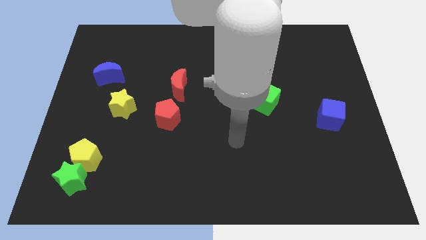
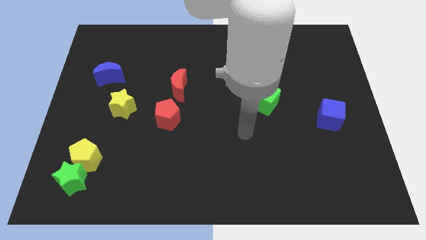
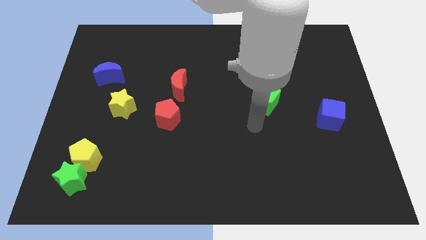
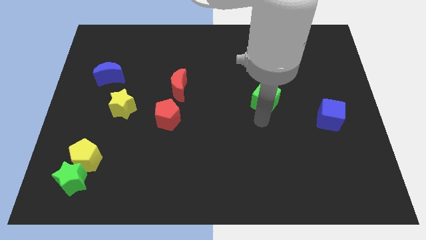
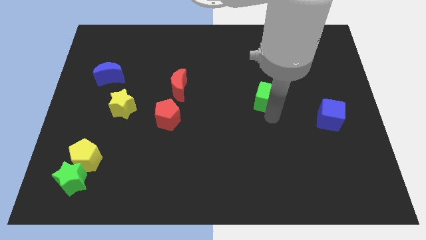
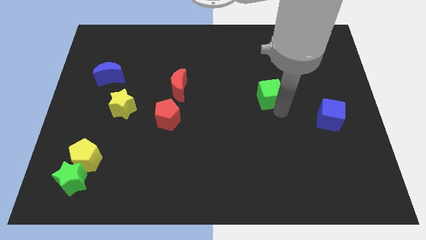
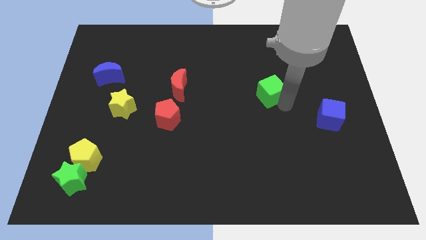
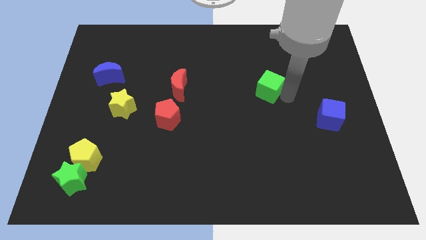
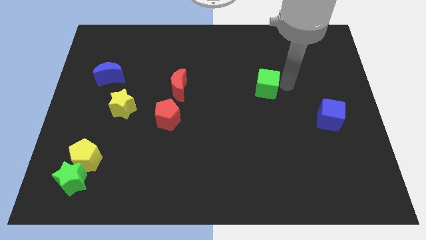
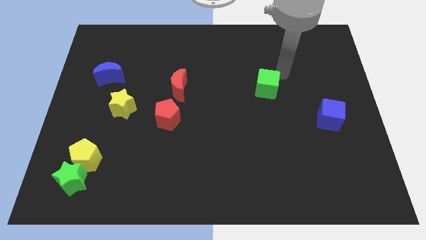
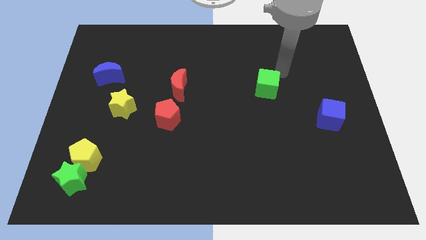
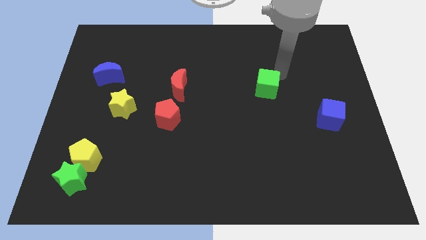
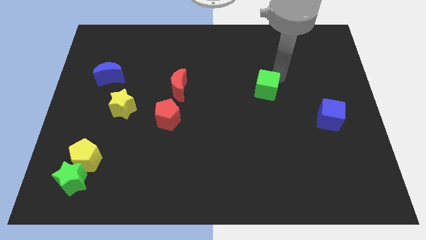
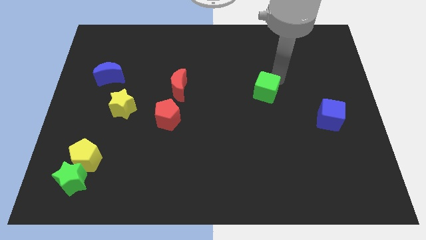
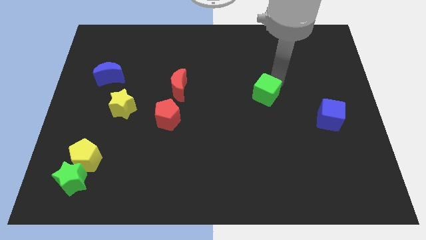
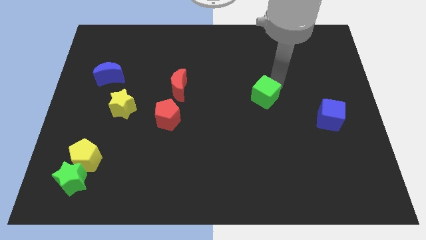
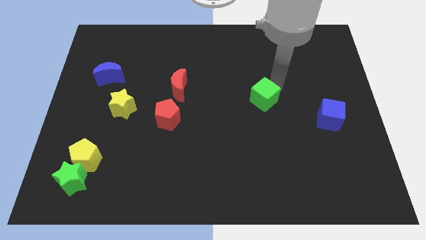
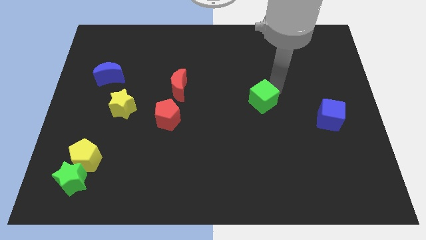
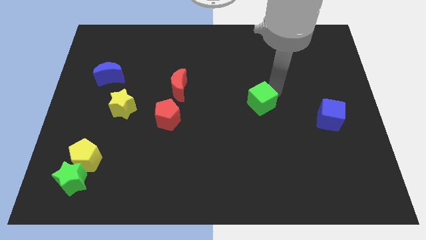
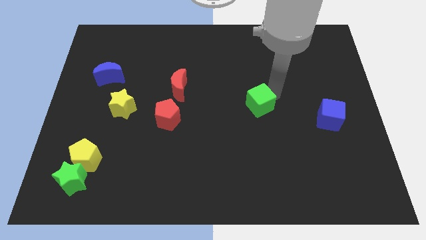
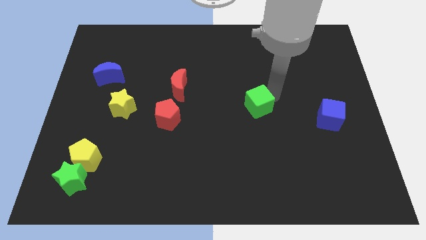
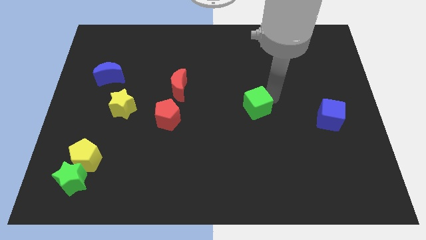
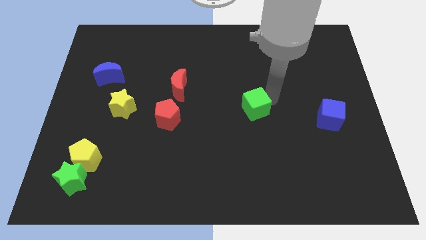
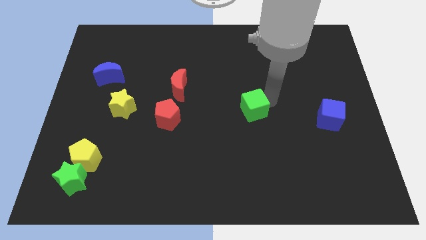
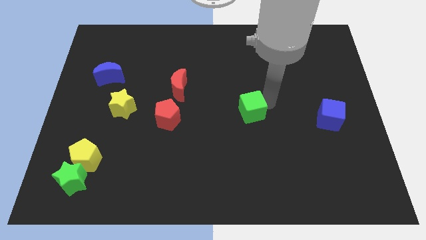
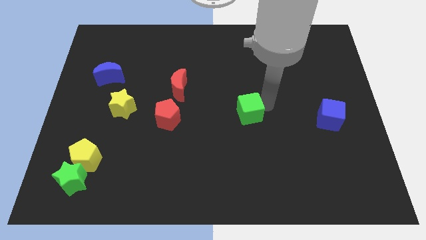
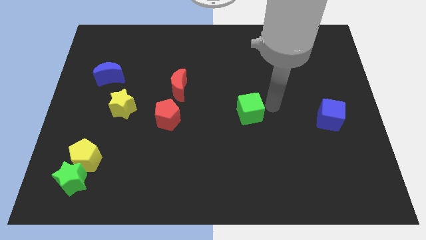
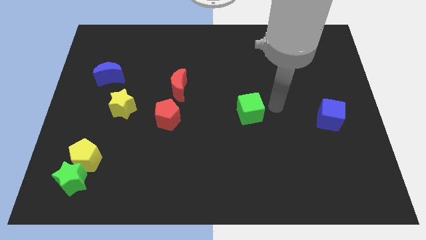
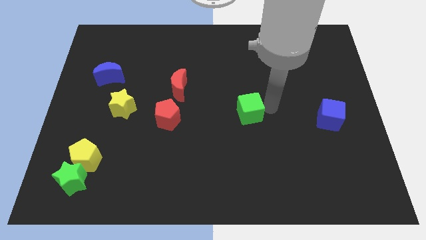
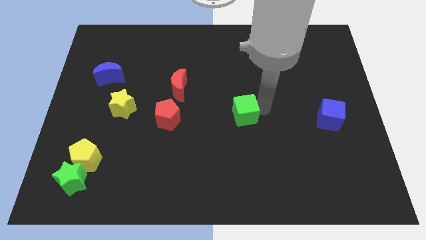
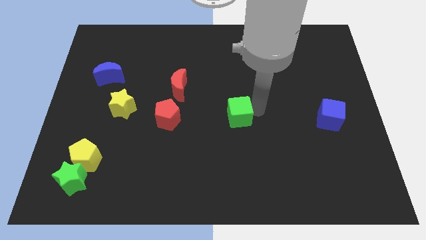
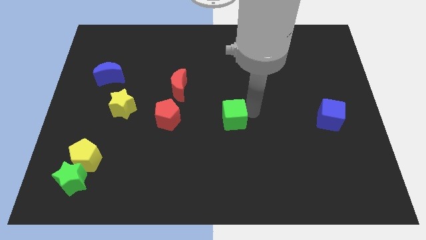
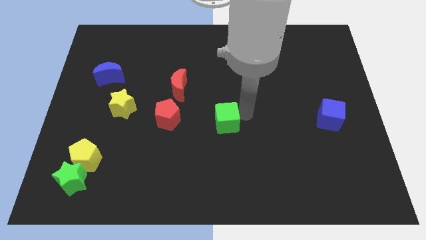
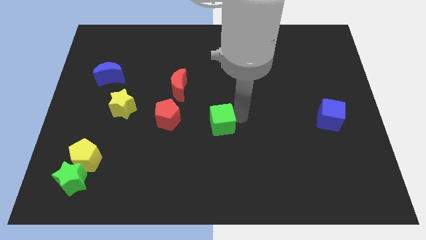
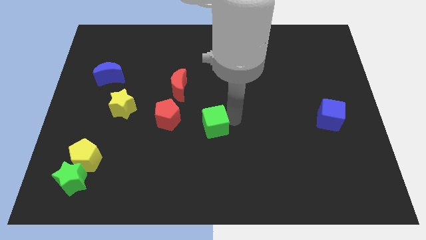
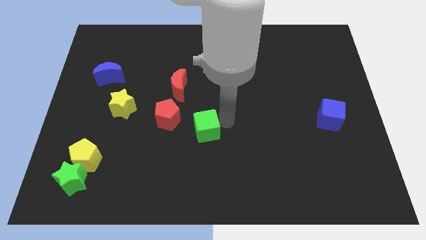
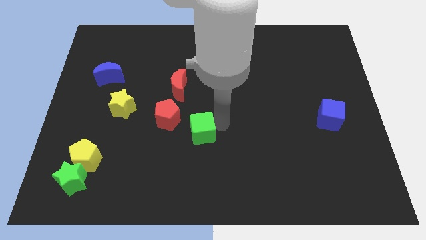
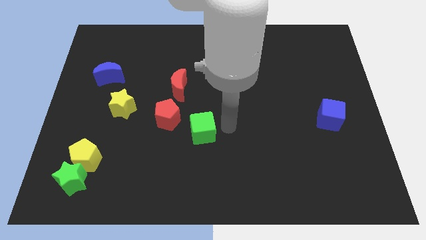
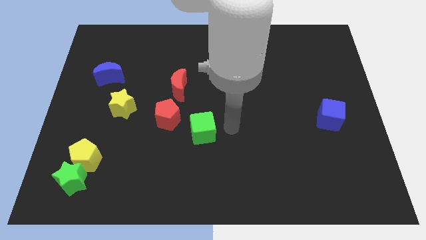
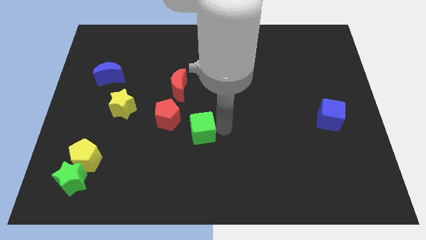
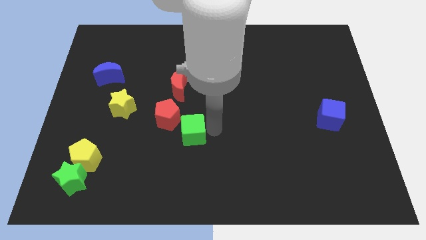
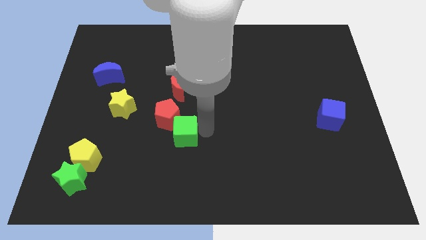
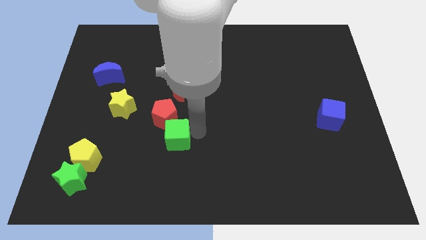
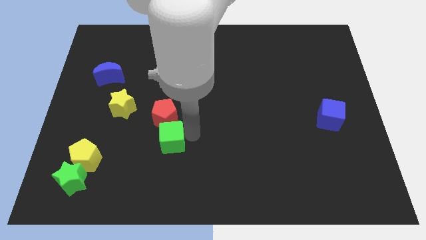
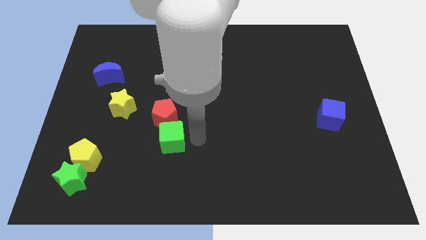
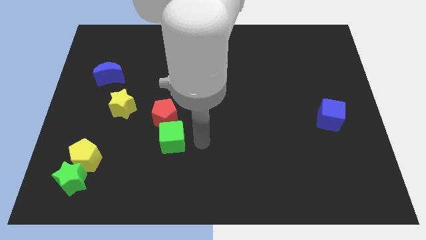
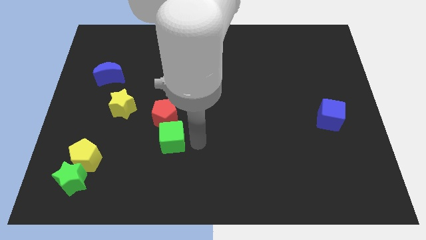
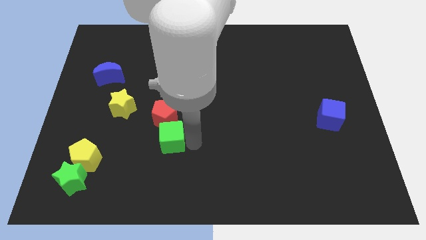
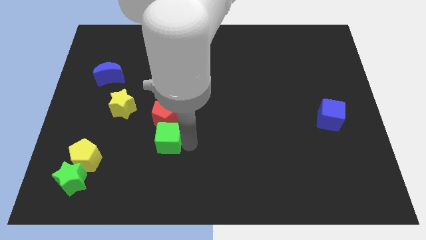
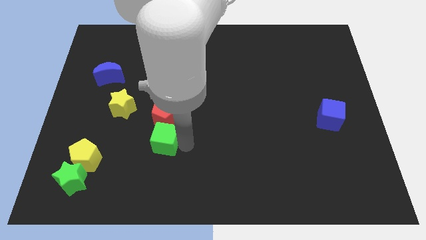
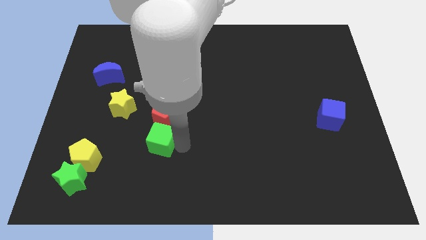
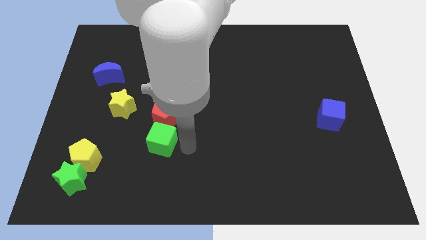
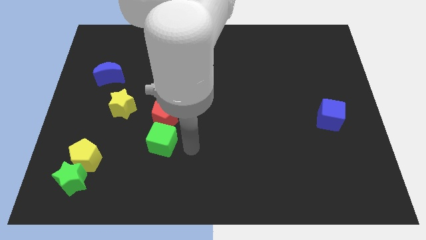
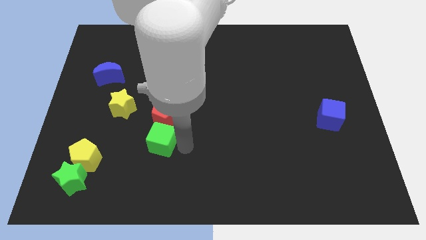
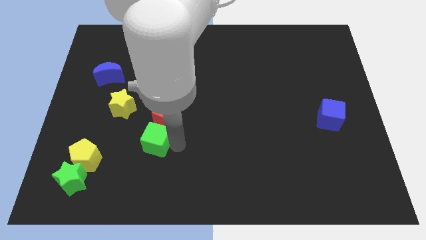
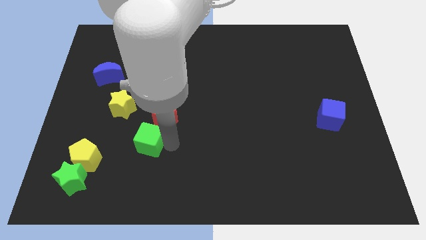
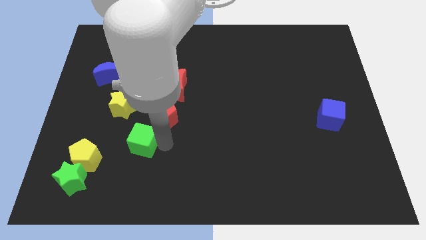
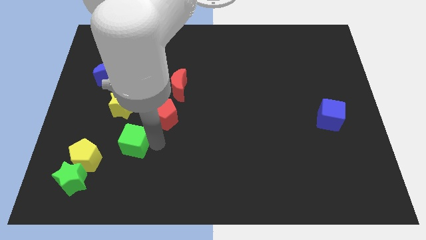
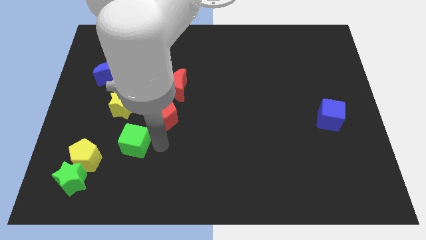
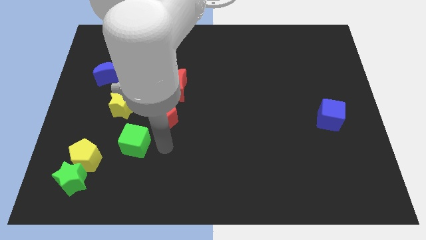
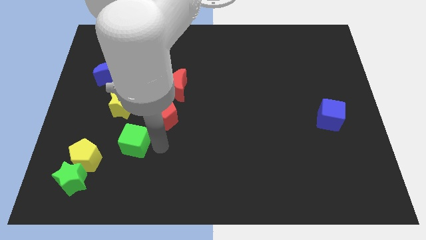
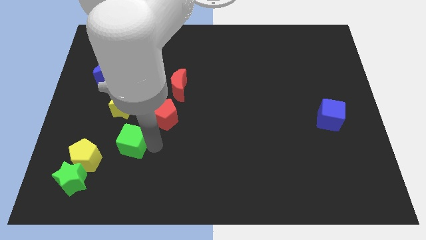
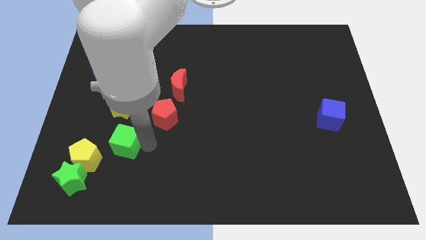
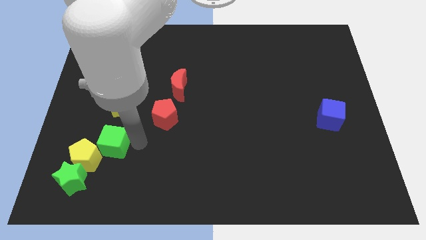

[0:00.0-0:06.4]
slide the green cube close to the yellow pentagon
